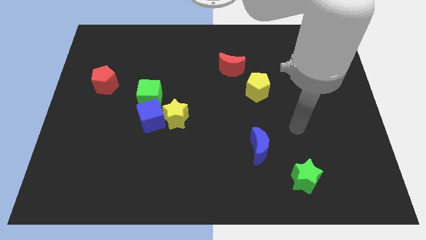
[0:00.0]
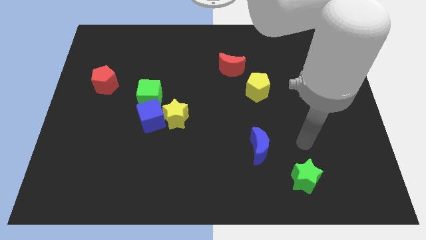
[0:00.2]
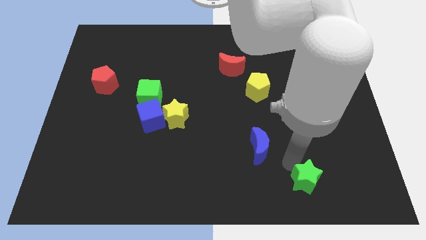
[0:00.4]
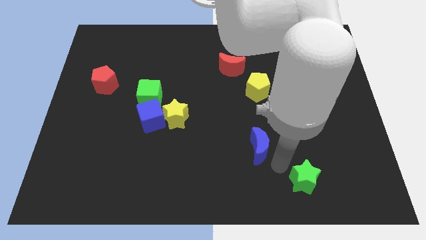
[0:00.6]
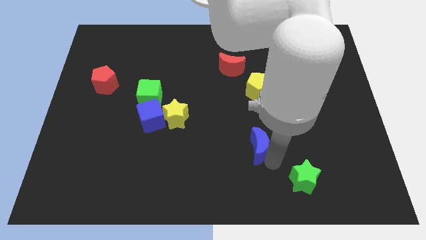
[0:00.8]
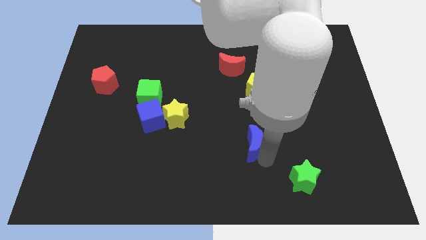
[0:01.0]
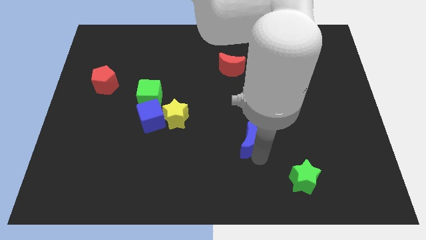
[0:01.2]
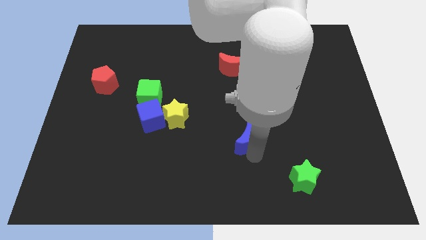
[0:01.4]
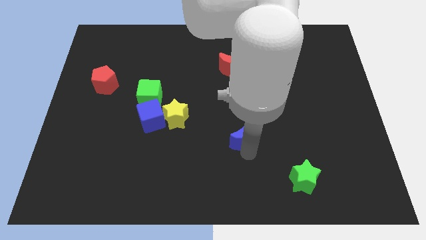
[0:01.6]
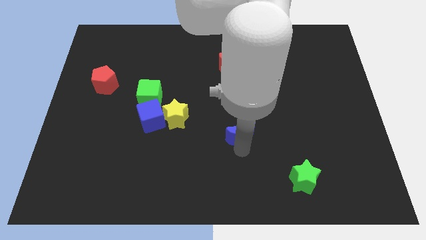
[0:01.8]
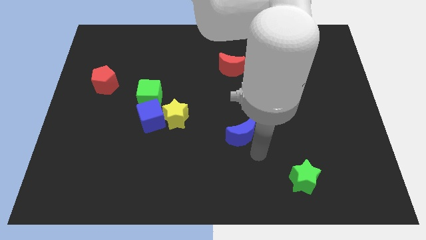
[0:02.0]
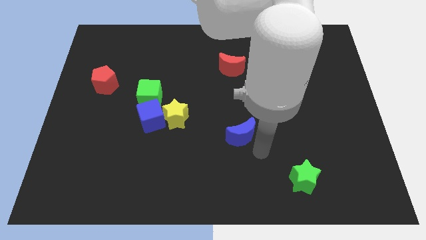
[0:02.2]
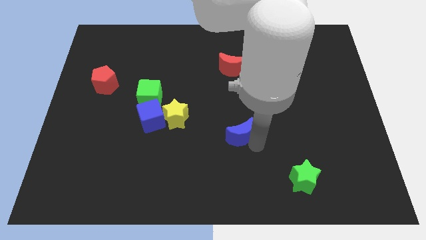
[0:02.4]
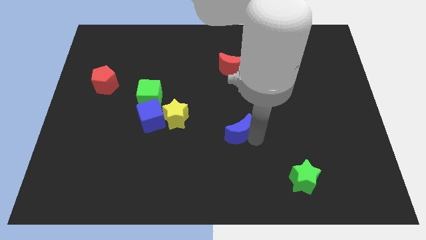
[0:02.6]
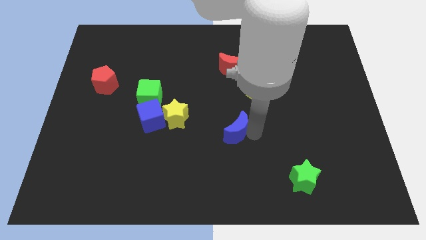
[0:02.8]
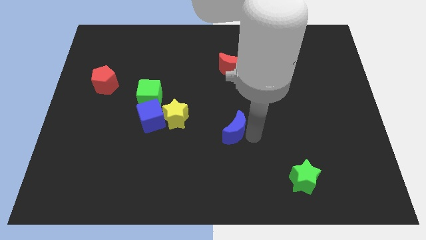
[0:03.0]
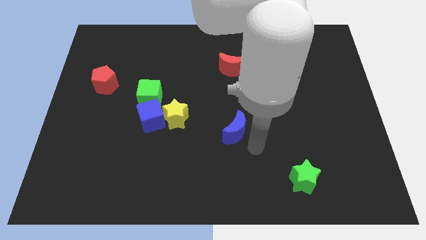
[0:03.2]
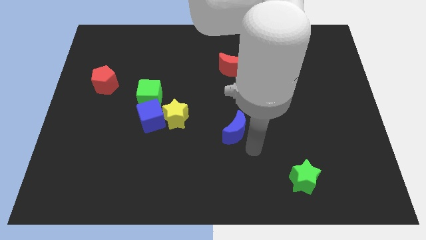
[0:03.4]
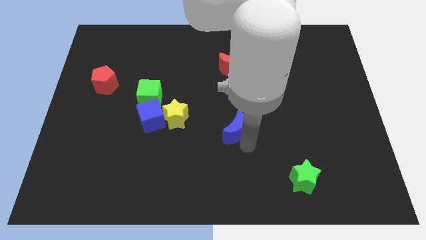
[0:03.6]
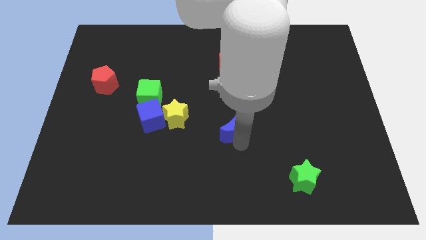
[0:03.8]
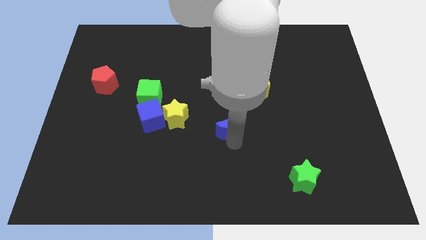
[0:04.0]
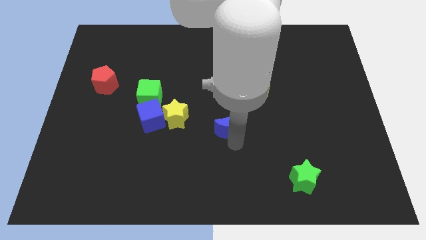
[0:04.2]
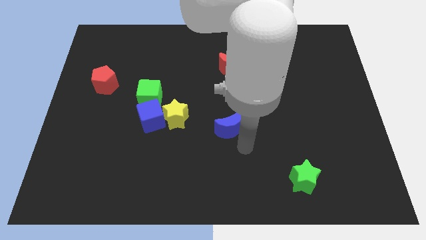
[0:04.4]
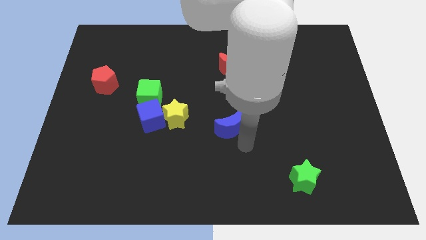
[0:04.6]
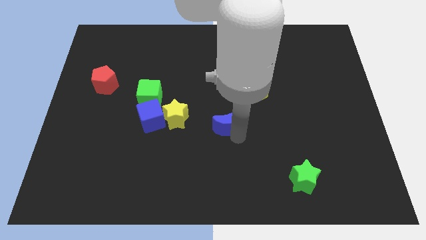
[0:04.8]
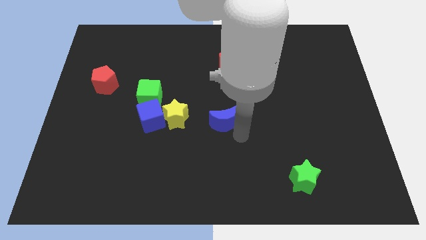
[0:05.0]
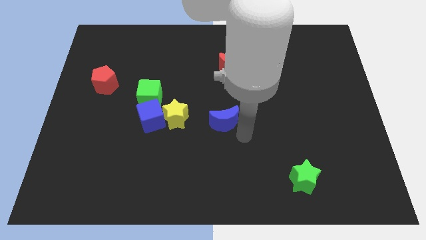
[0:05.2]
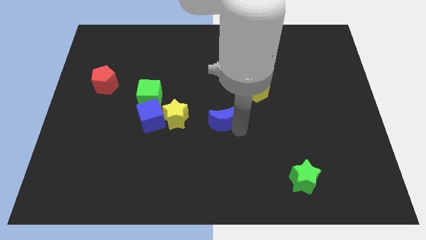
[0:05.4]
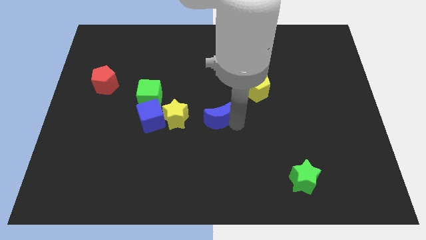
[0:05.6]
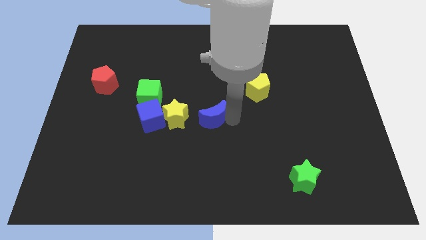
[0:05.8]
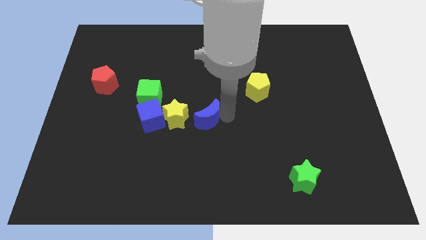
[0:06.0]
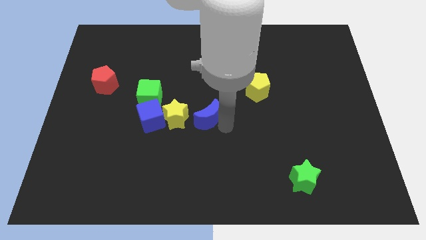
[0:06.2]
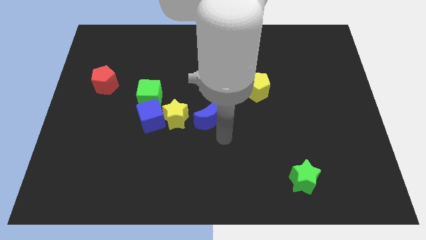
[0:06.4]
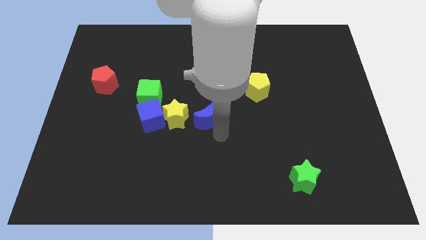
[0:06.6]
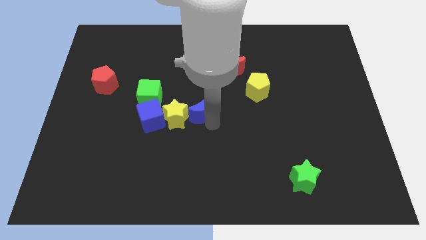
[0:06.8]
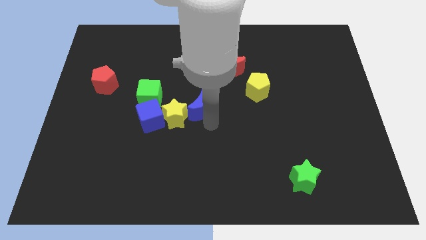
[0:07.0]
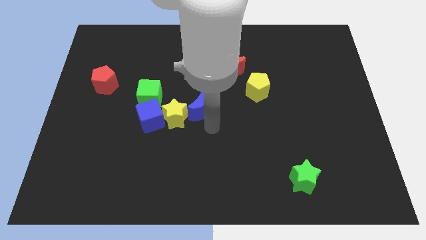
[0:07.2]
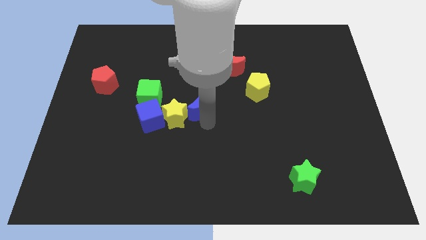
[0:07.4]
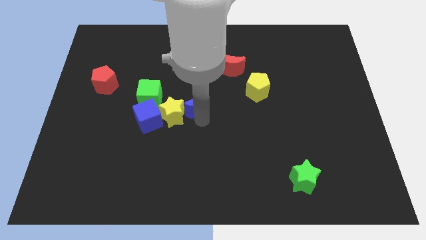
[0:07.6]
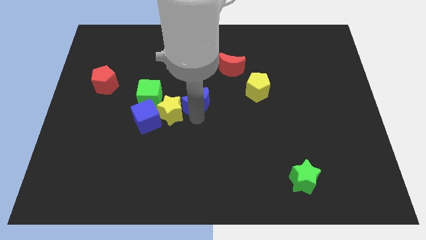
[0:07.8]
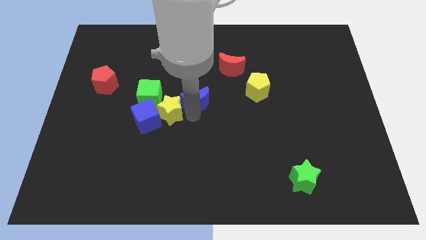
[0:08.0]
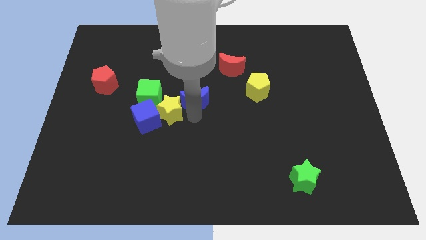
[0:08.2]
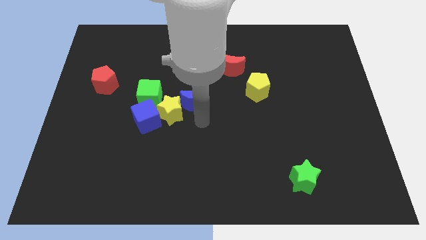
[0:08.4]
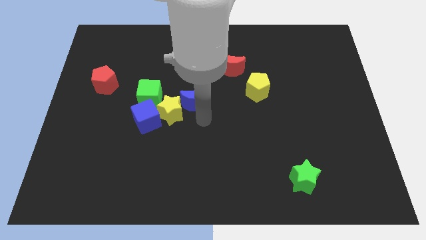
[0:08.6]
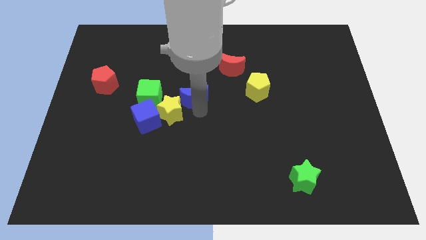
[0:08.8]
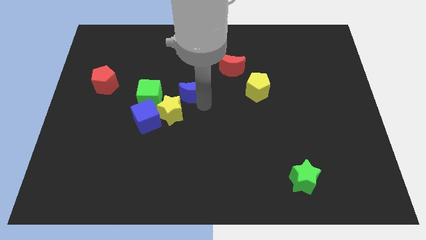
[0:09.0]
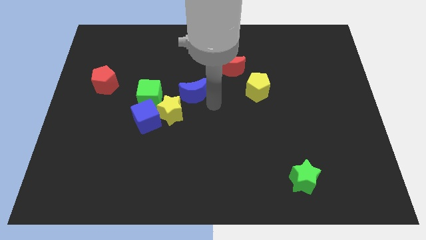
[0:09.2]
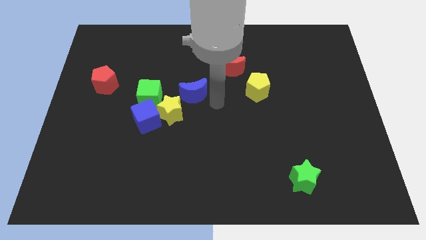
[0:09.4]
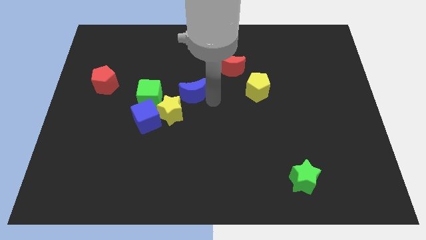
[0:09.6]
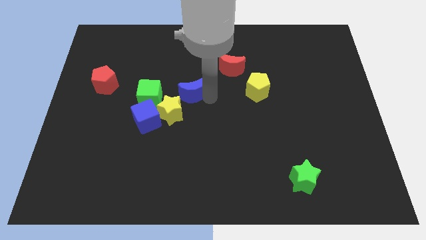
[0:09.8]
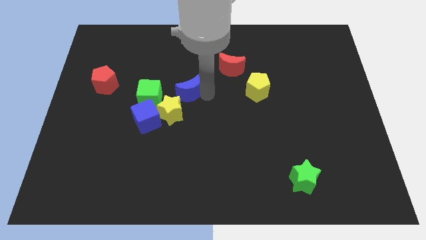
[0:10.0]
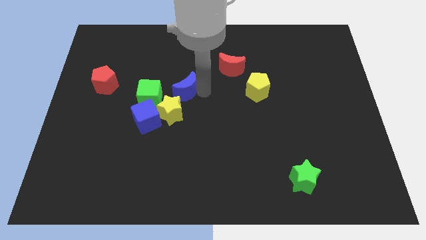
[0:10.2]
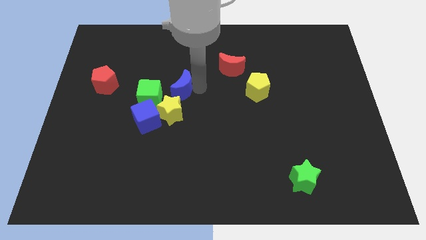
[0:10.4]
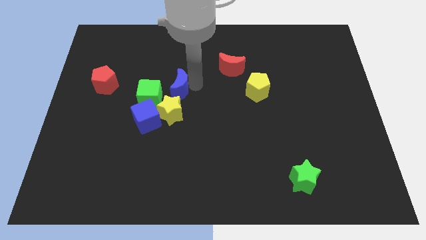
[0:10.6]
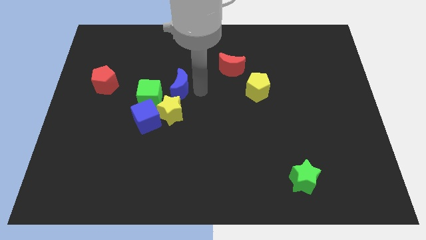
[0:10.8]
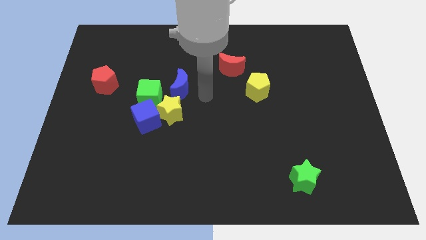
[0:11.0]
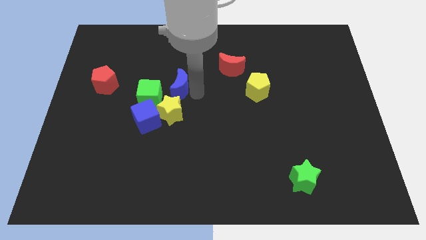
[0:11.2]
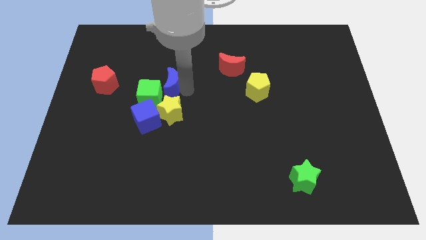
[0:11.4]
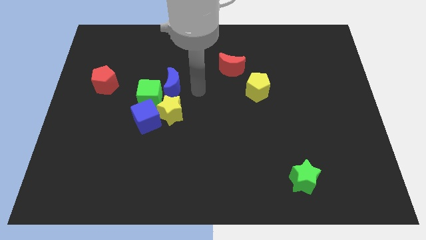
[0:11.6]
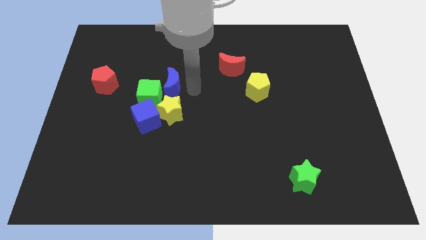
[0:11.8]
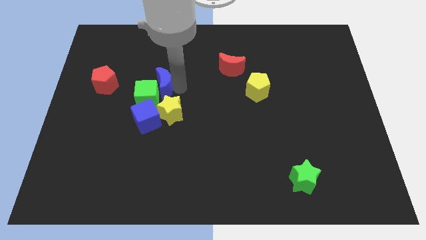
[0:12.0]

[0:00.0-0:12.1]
move the blue moon right of the red pentagon

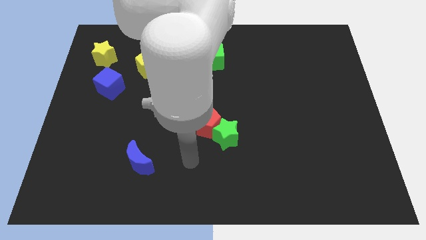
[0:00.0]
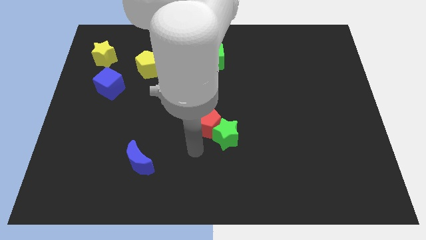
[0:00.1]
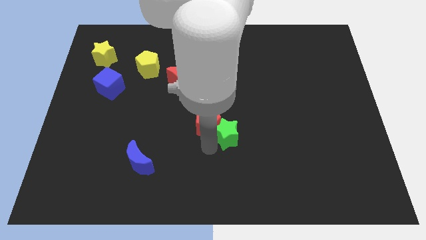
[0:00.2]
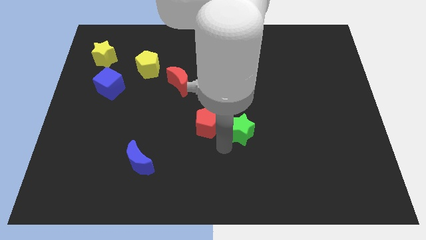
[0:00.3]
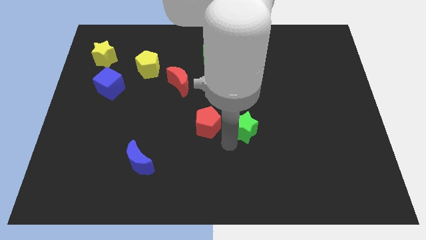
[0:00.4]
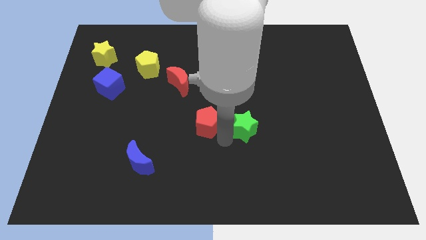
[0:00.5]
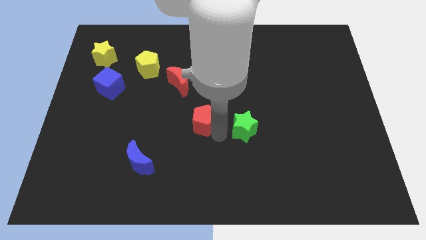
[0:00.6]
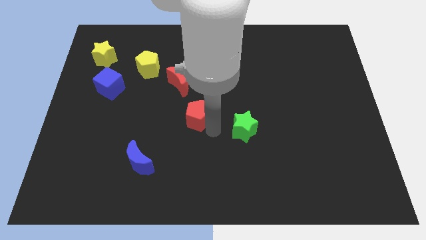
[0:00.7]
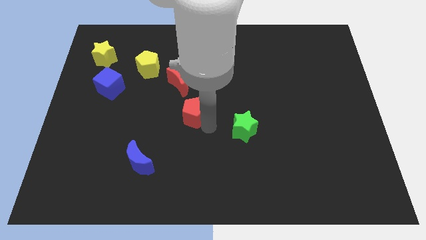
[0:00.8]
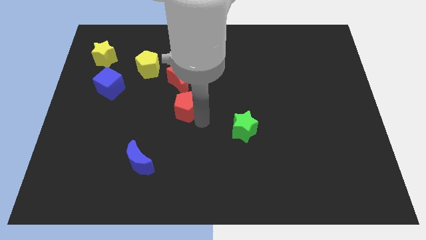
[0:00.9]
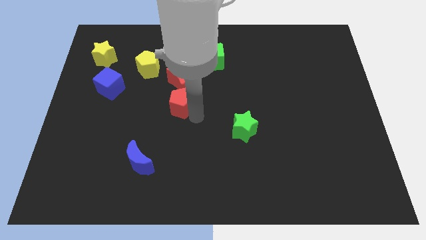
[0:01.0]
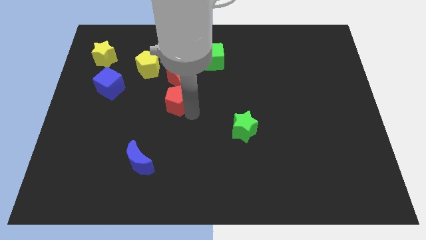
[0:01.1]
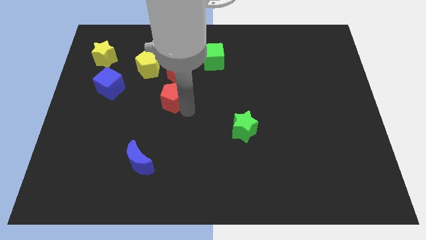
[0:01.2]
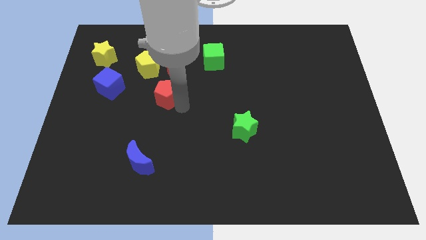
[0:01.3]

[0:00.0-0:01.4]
put the red pentagon to the right side of the blue cube

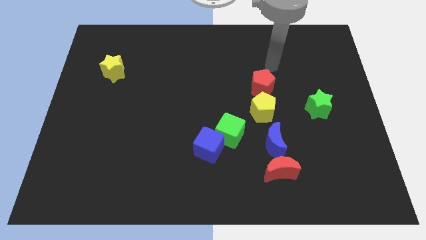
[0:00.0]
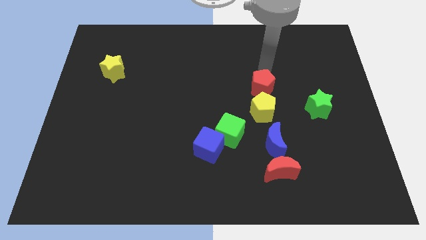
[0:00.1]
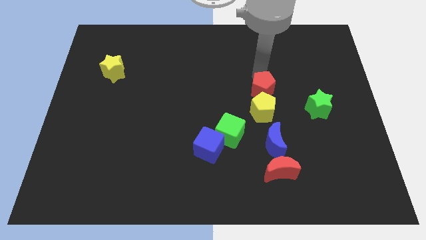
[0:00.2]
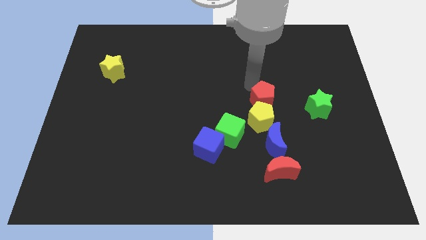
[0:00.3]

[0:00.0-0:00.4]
move the yellow pentagon just right of the green cube
